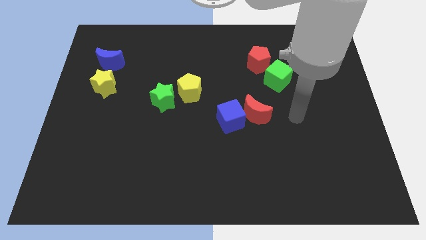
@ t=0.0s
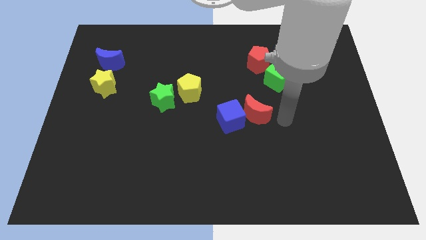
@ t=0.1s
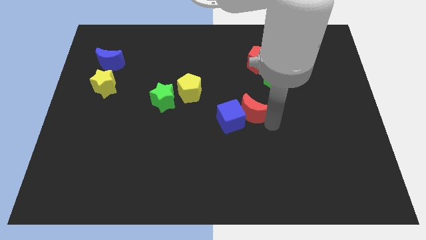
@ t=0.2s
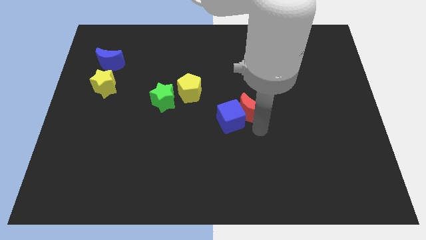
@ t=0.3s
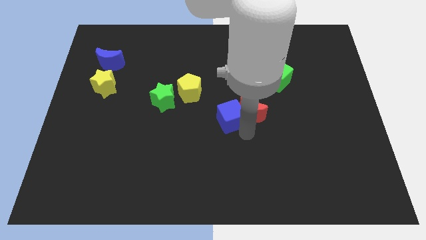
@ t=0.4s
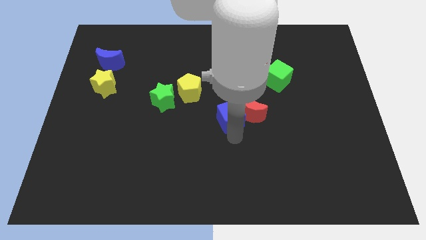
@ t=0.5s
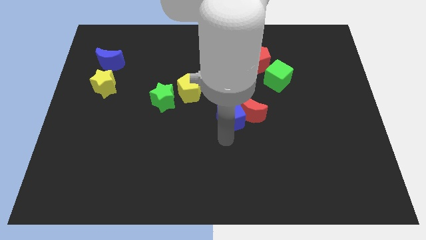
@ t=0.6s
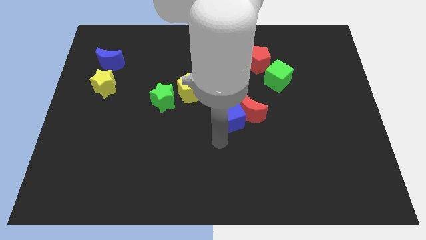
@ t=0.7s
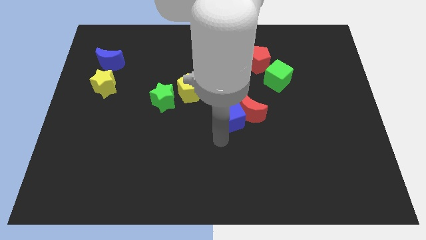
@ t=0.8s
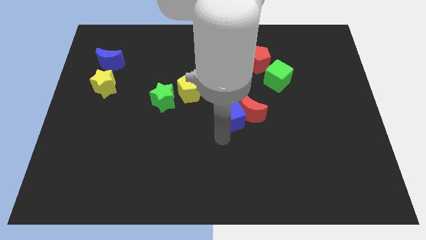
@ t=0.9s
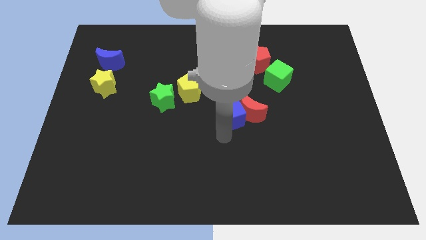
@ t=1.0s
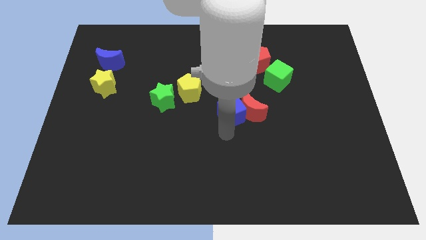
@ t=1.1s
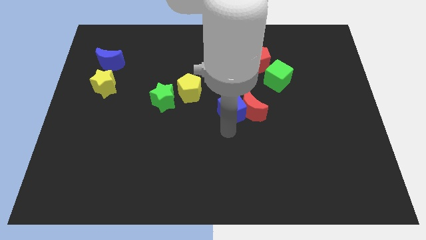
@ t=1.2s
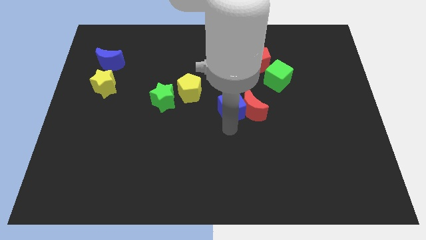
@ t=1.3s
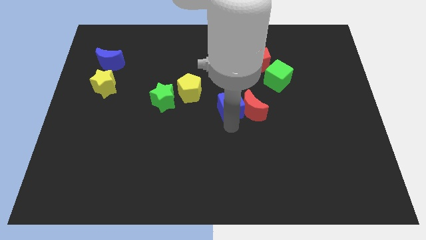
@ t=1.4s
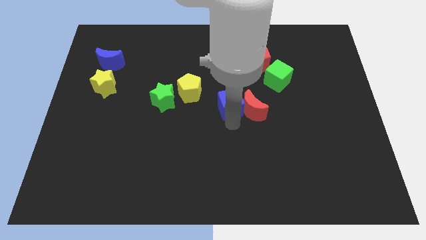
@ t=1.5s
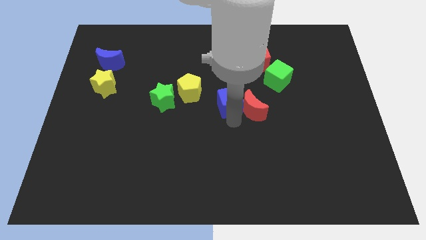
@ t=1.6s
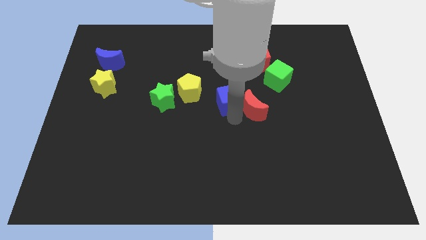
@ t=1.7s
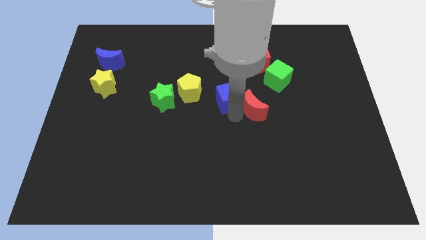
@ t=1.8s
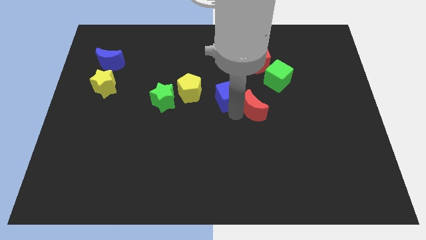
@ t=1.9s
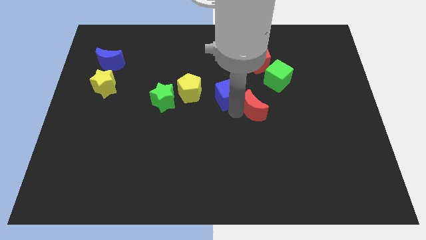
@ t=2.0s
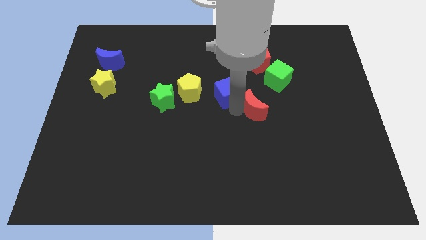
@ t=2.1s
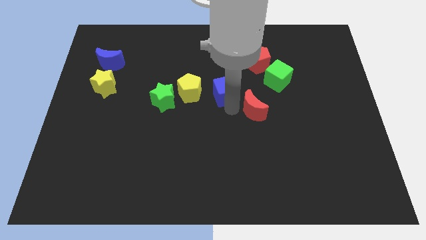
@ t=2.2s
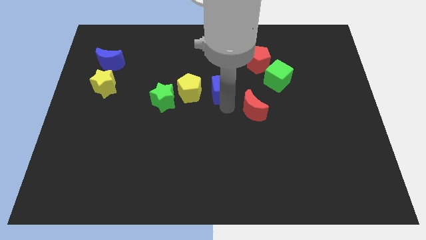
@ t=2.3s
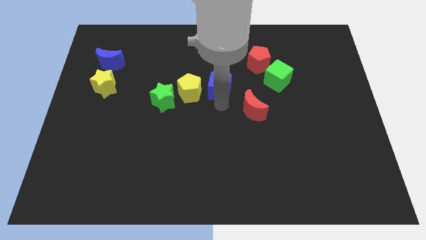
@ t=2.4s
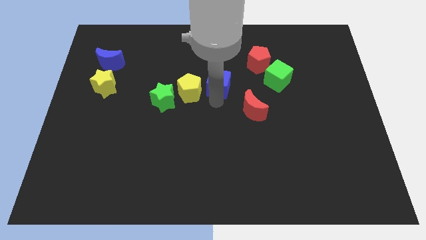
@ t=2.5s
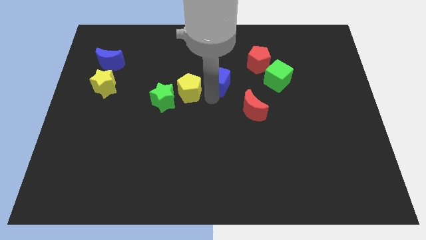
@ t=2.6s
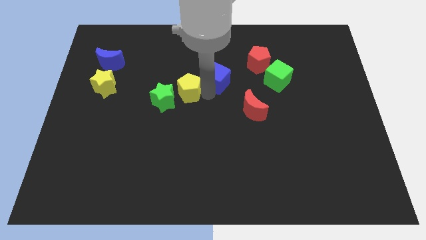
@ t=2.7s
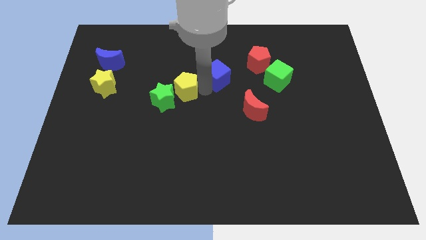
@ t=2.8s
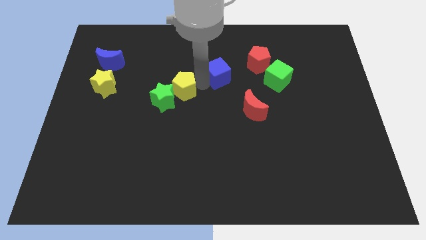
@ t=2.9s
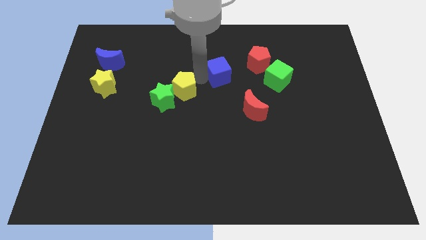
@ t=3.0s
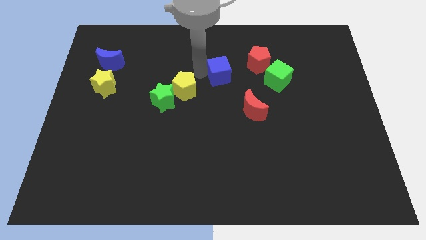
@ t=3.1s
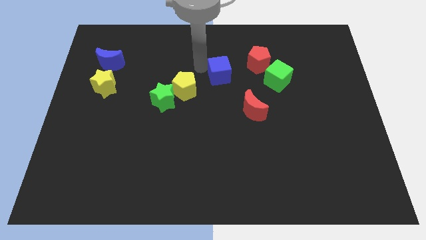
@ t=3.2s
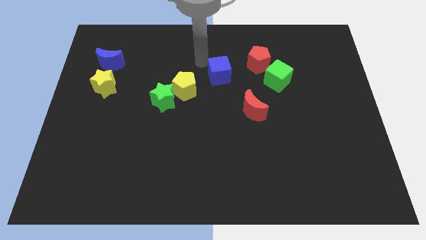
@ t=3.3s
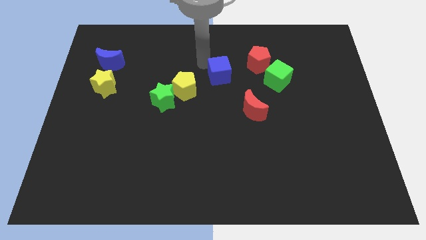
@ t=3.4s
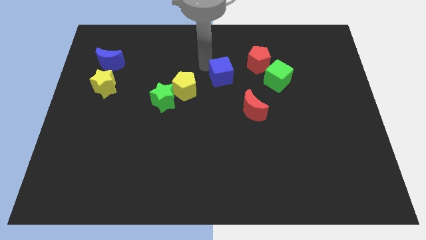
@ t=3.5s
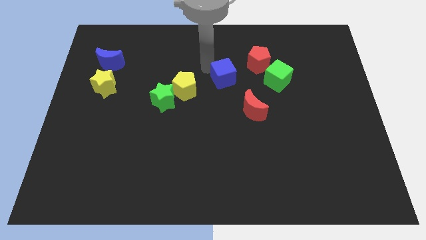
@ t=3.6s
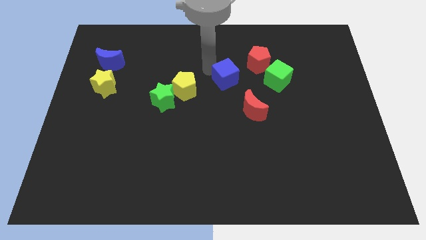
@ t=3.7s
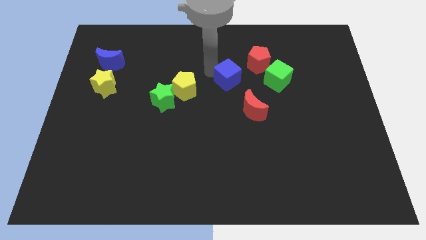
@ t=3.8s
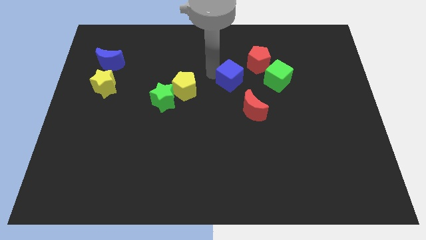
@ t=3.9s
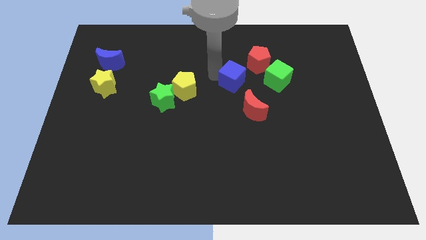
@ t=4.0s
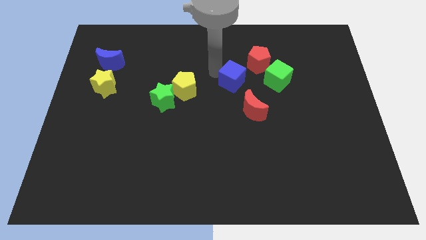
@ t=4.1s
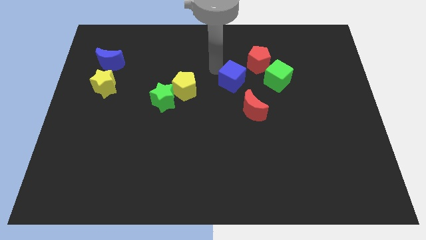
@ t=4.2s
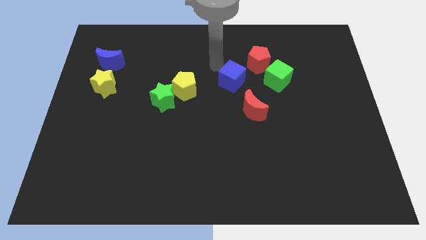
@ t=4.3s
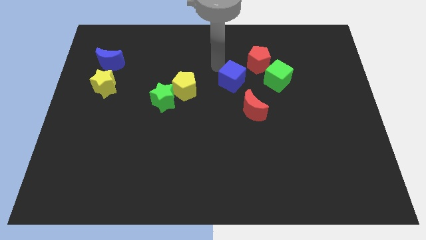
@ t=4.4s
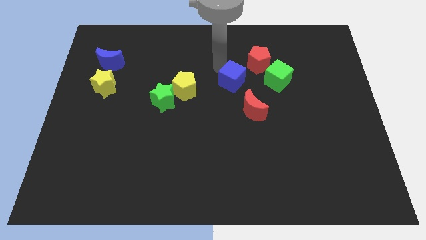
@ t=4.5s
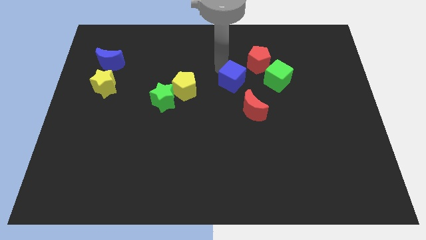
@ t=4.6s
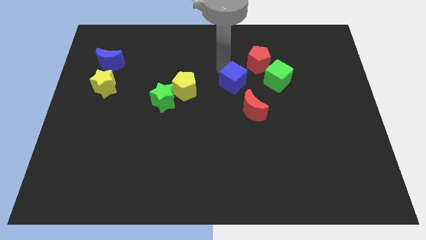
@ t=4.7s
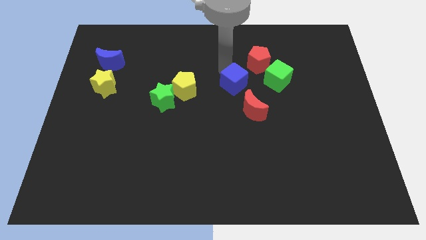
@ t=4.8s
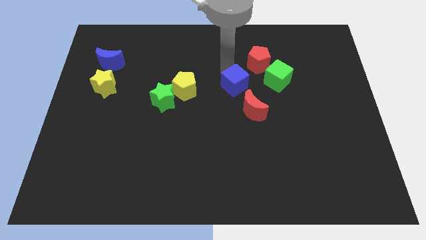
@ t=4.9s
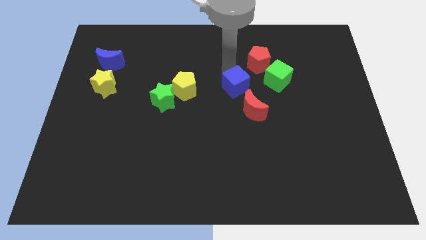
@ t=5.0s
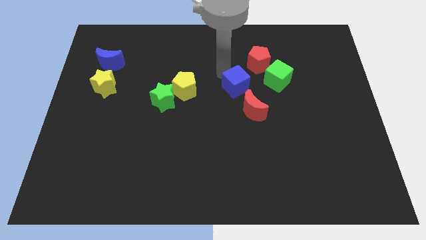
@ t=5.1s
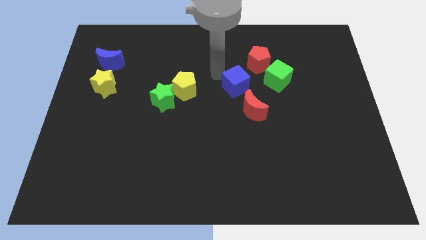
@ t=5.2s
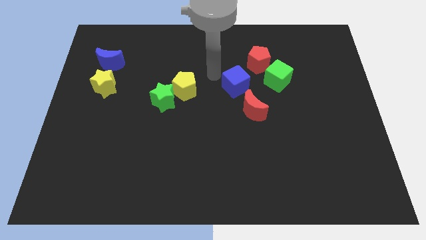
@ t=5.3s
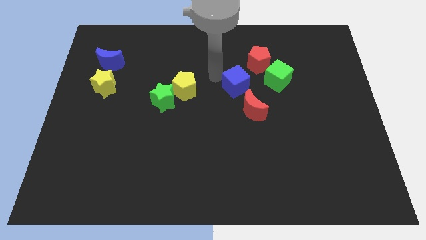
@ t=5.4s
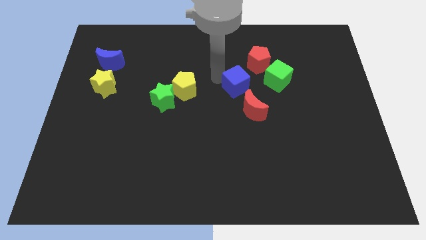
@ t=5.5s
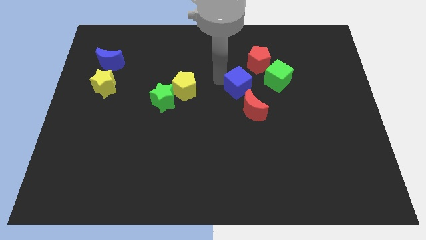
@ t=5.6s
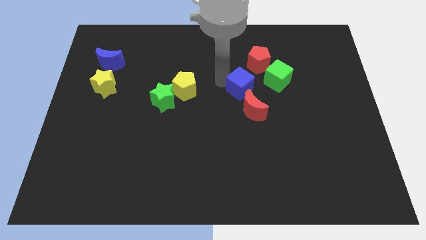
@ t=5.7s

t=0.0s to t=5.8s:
move the blue cube to the bottom left of the green cube
